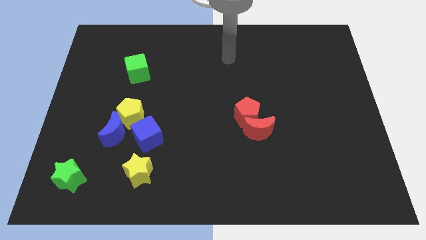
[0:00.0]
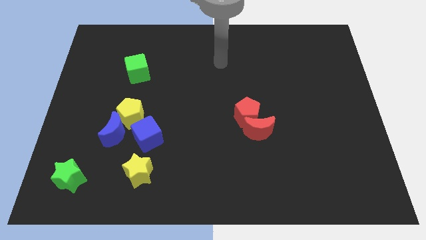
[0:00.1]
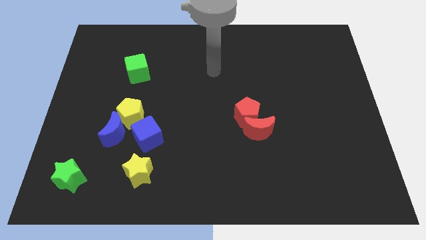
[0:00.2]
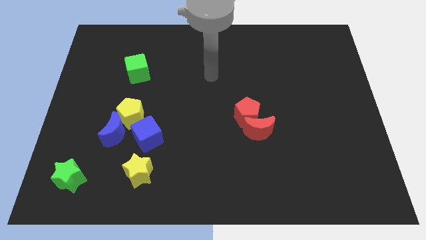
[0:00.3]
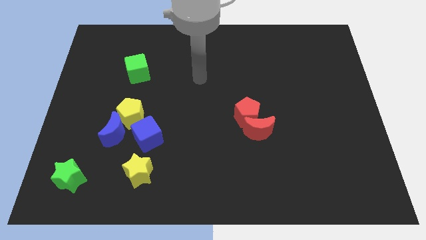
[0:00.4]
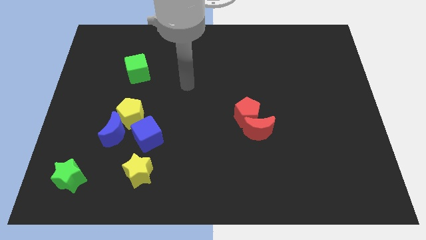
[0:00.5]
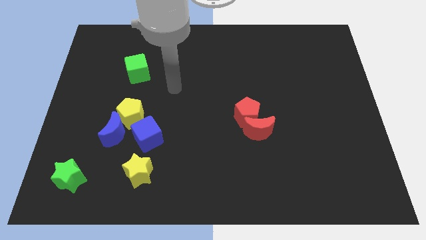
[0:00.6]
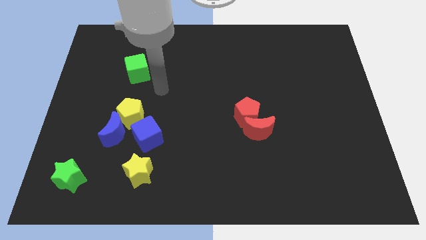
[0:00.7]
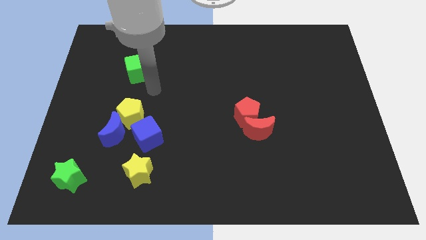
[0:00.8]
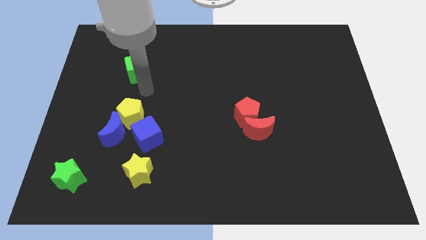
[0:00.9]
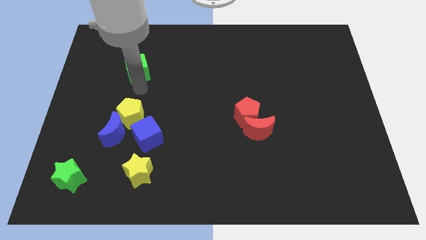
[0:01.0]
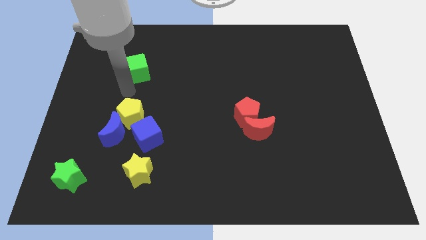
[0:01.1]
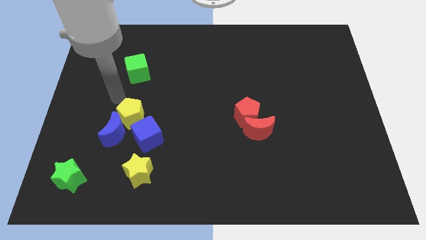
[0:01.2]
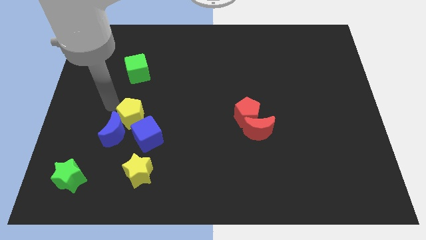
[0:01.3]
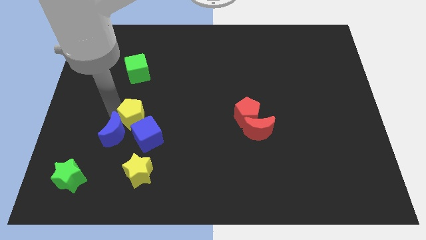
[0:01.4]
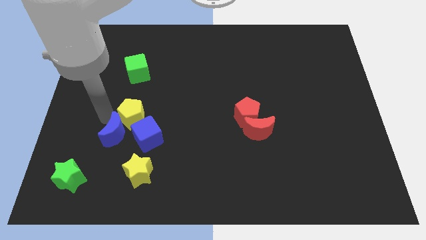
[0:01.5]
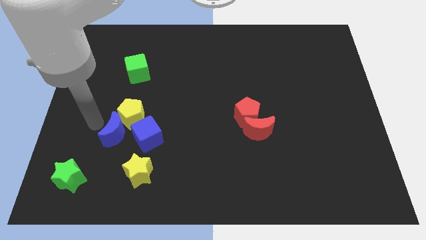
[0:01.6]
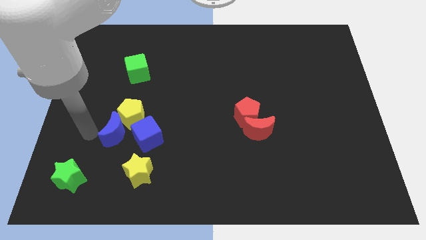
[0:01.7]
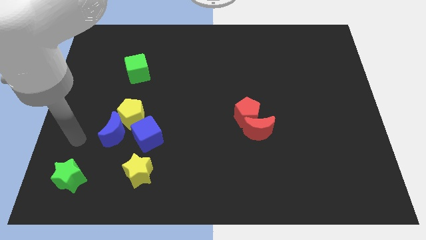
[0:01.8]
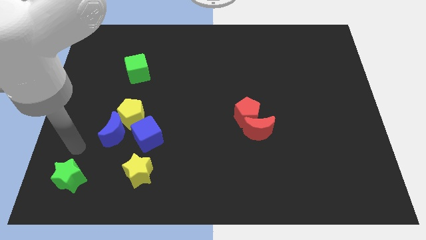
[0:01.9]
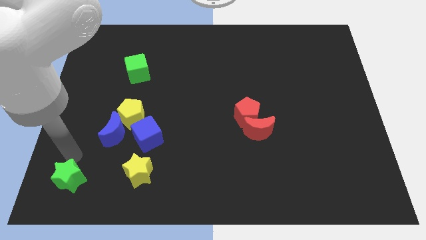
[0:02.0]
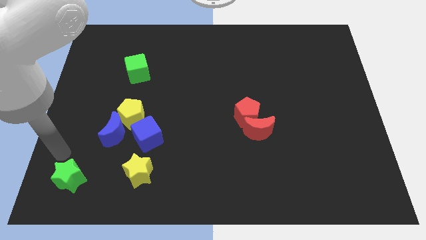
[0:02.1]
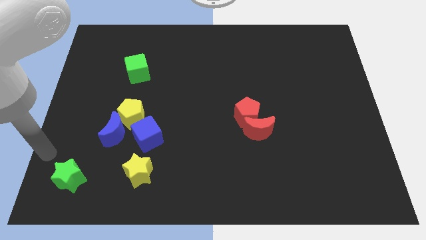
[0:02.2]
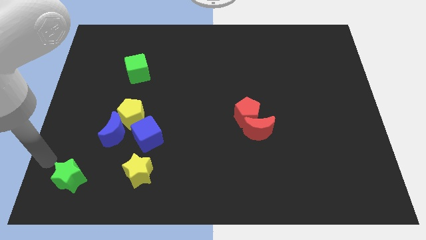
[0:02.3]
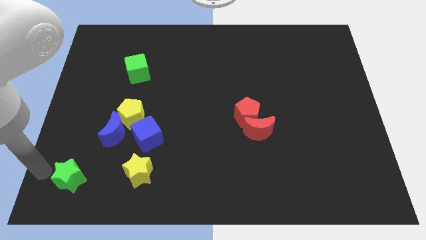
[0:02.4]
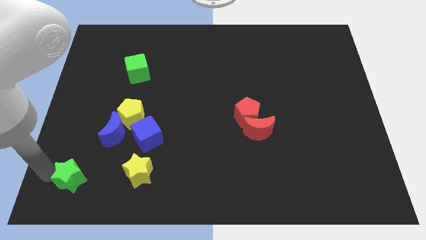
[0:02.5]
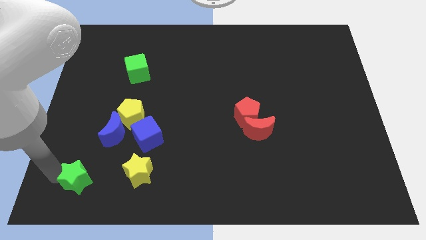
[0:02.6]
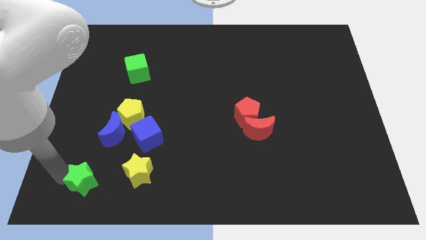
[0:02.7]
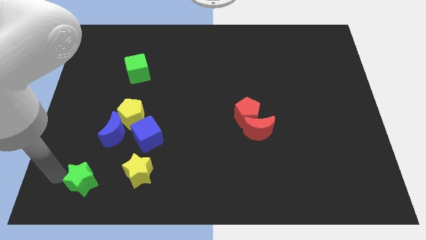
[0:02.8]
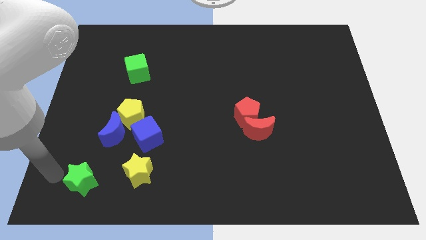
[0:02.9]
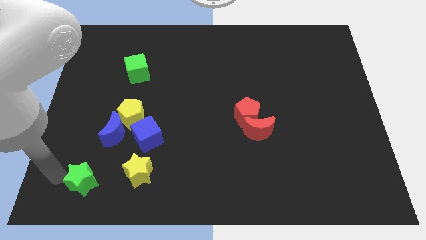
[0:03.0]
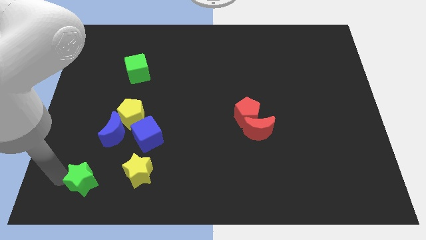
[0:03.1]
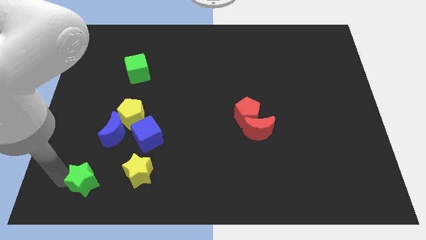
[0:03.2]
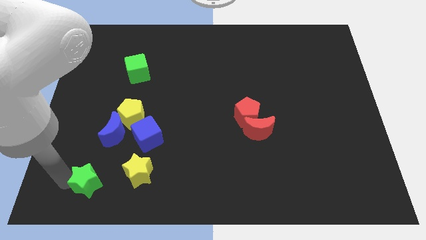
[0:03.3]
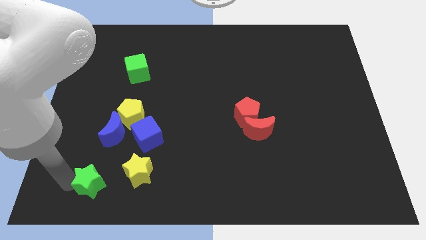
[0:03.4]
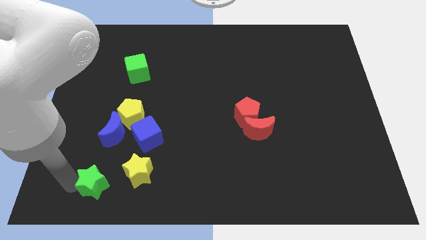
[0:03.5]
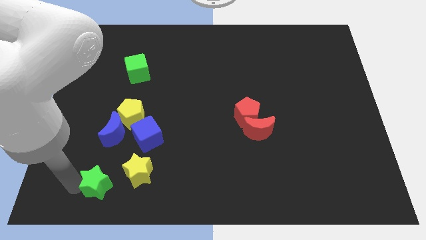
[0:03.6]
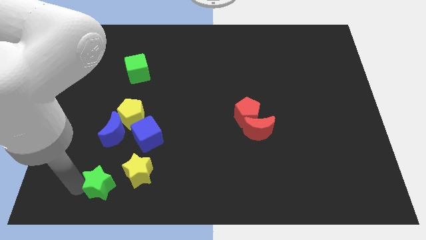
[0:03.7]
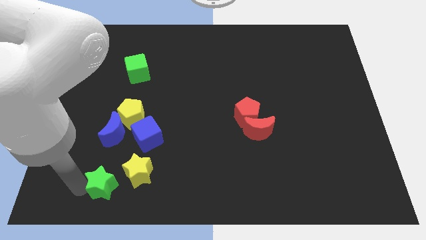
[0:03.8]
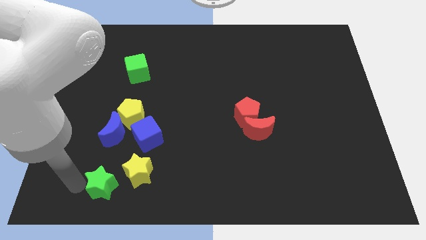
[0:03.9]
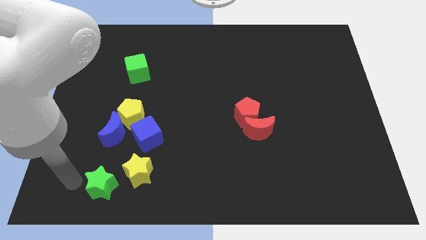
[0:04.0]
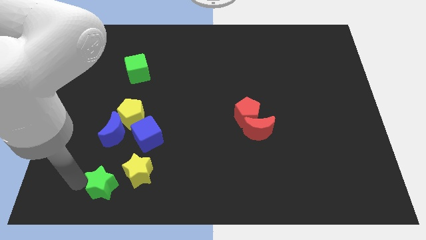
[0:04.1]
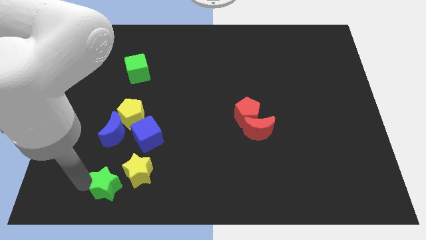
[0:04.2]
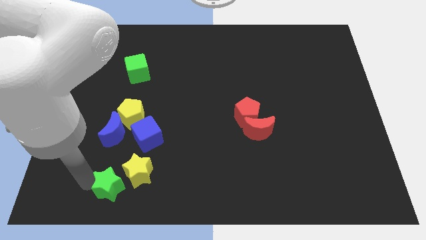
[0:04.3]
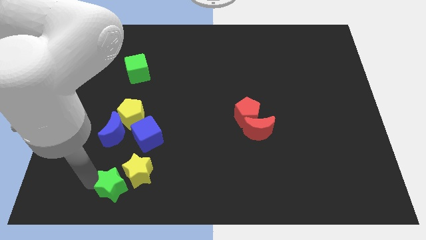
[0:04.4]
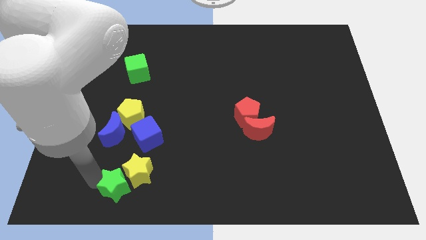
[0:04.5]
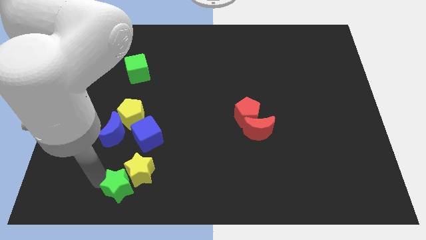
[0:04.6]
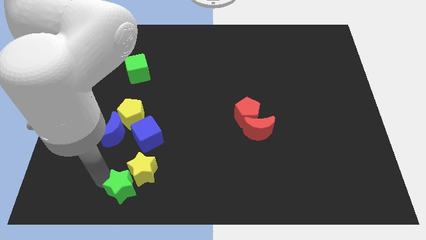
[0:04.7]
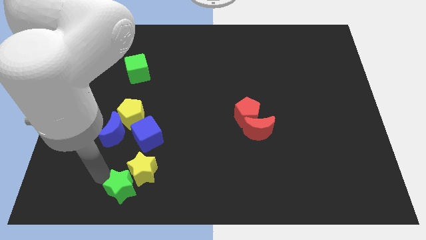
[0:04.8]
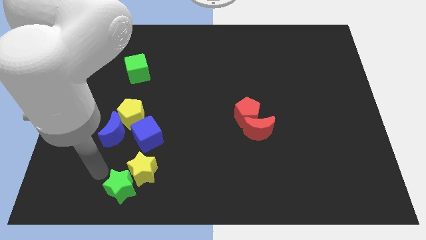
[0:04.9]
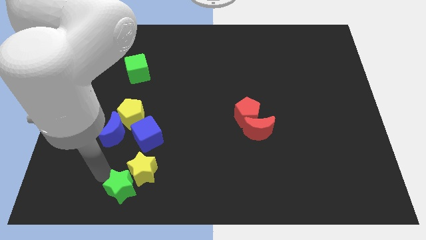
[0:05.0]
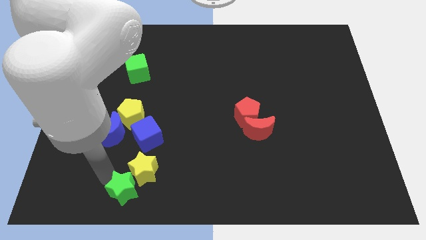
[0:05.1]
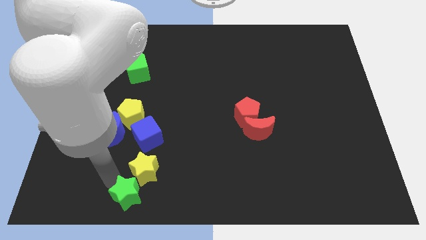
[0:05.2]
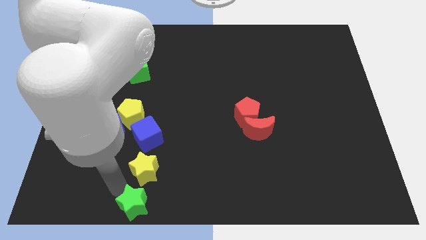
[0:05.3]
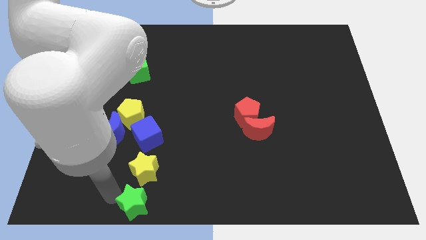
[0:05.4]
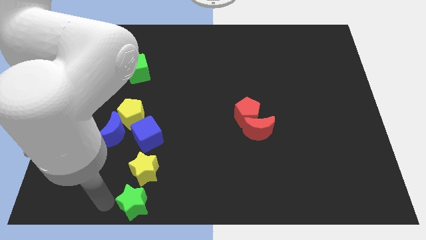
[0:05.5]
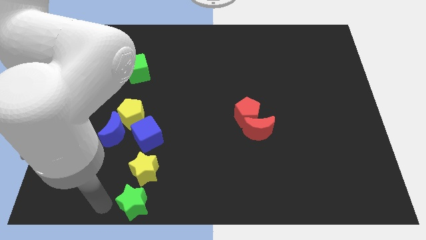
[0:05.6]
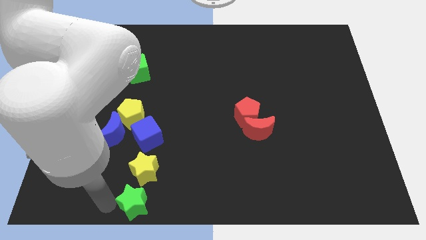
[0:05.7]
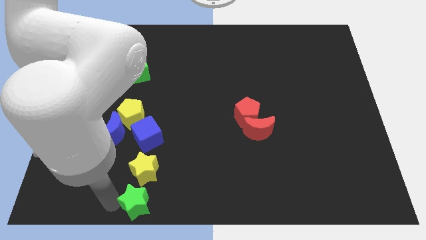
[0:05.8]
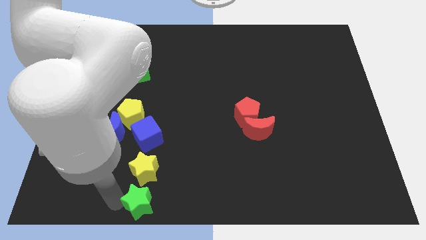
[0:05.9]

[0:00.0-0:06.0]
put the green star to the bottom side

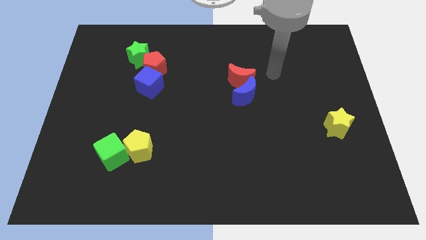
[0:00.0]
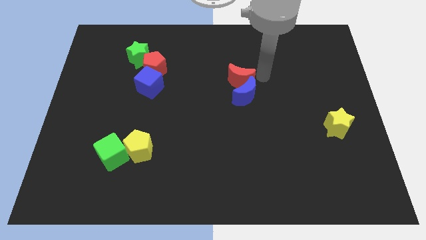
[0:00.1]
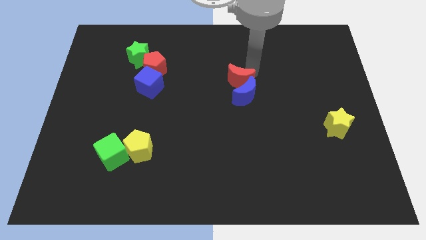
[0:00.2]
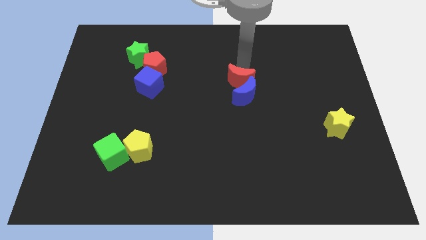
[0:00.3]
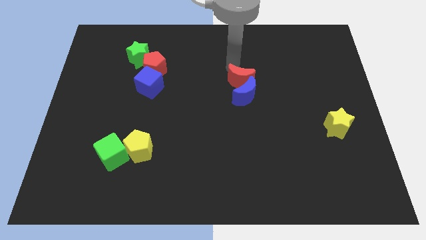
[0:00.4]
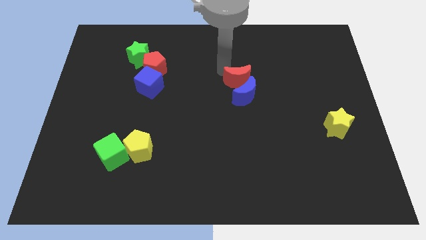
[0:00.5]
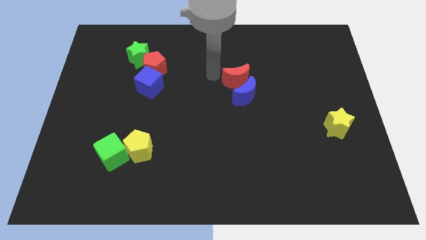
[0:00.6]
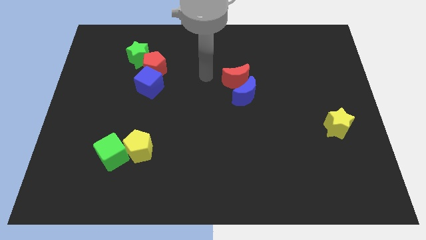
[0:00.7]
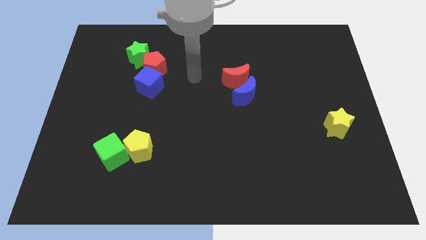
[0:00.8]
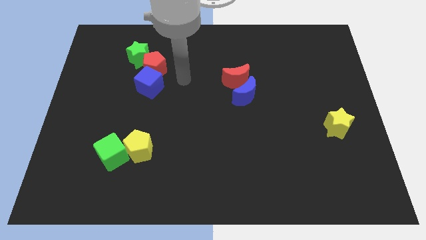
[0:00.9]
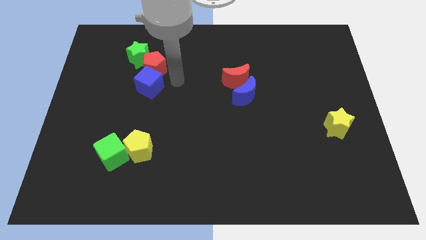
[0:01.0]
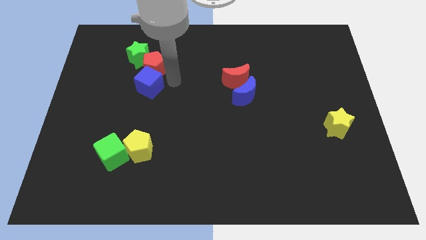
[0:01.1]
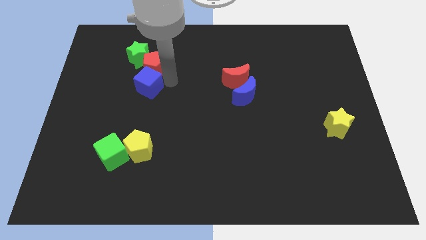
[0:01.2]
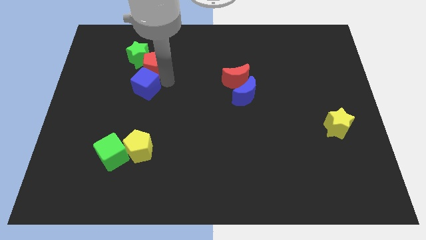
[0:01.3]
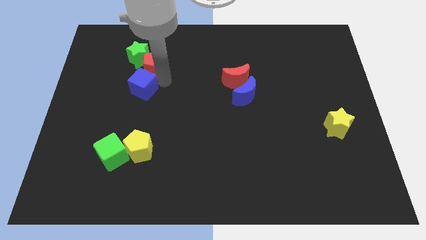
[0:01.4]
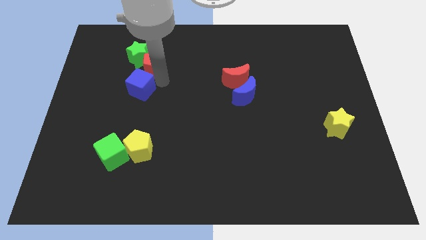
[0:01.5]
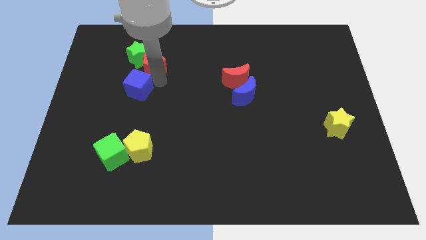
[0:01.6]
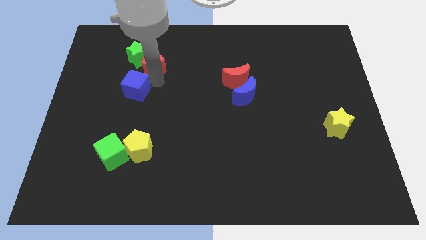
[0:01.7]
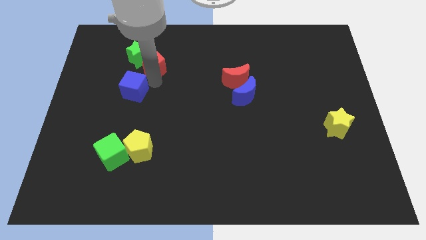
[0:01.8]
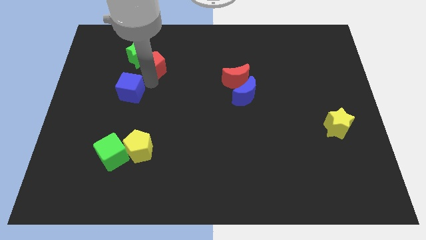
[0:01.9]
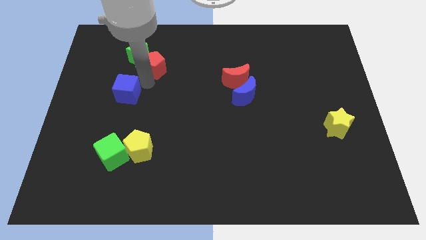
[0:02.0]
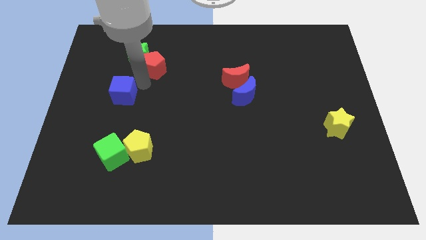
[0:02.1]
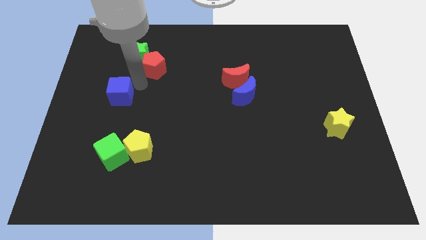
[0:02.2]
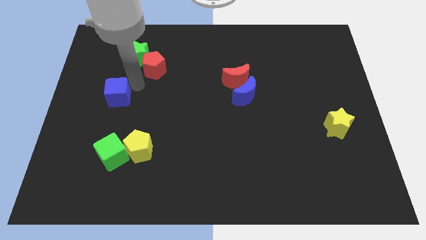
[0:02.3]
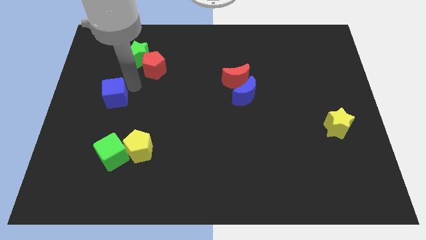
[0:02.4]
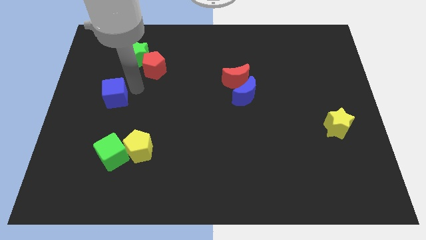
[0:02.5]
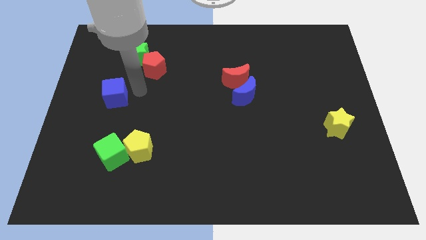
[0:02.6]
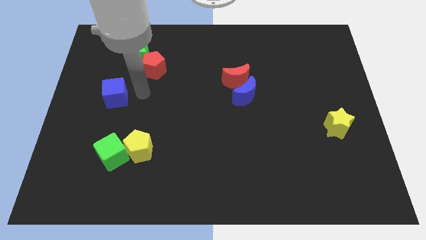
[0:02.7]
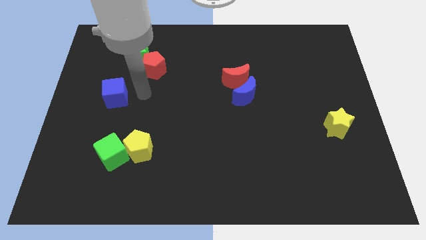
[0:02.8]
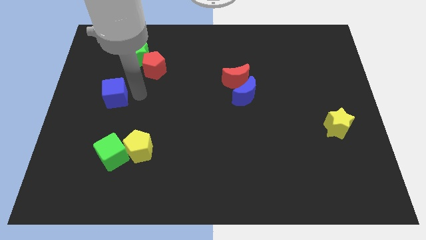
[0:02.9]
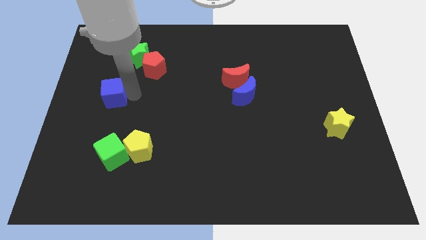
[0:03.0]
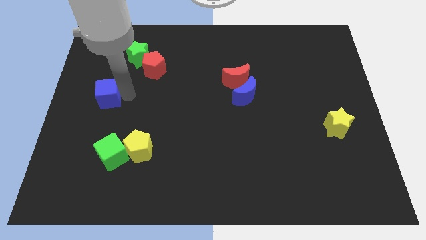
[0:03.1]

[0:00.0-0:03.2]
put the blue cube to the left side of the board
